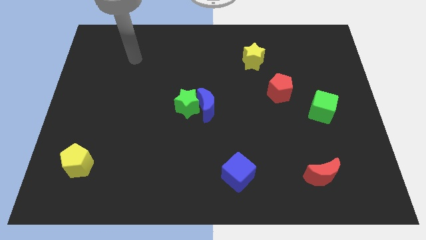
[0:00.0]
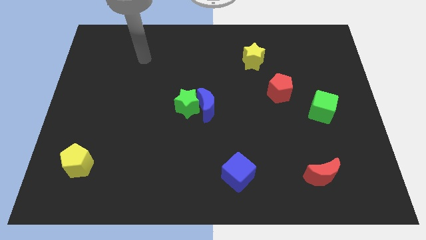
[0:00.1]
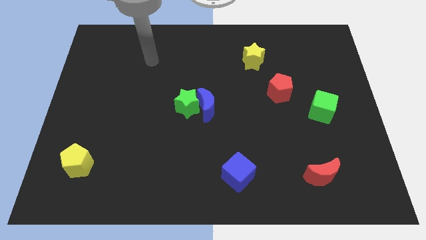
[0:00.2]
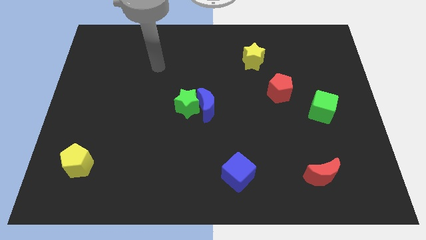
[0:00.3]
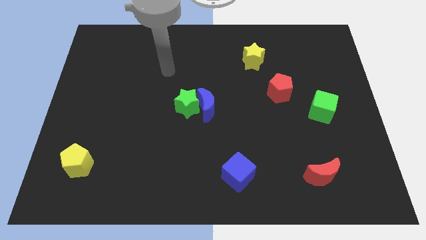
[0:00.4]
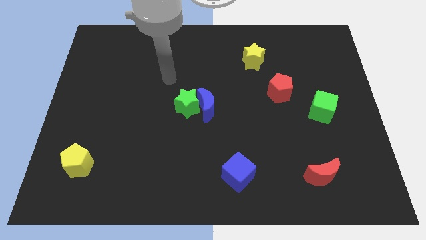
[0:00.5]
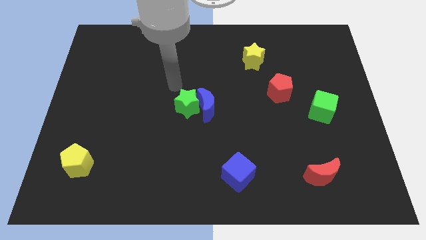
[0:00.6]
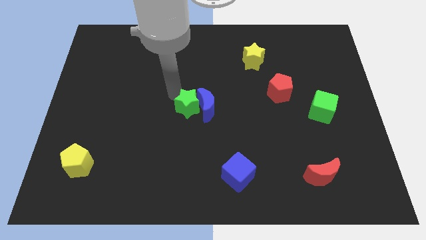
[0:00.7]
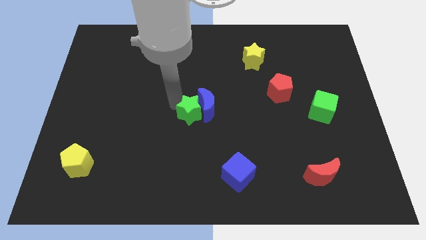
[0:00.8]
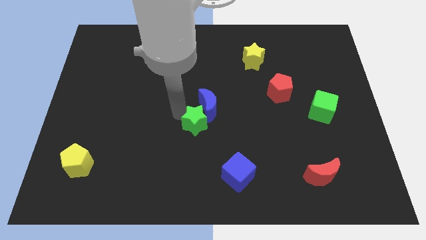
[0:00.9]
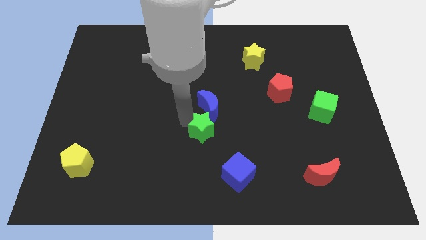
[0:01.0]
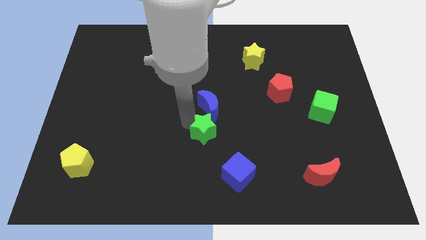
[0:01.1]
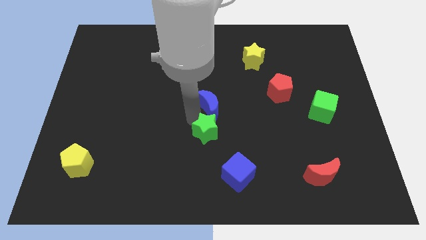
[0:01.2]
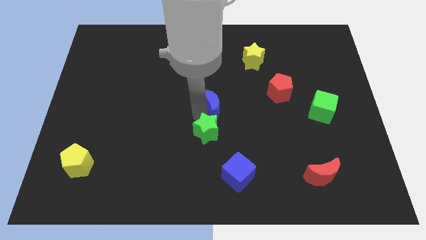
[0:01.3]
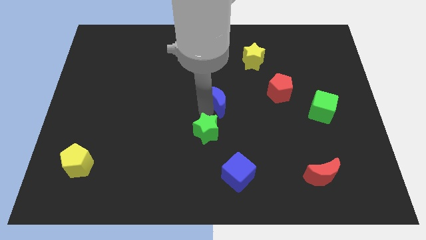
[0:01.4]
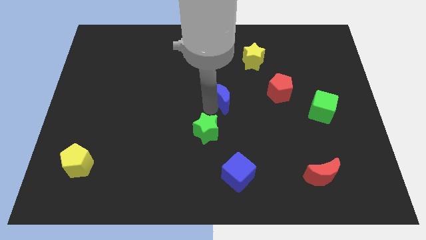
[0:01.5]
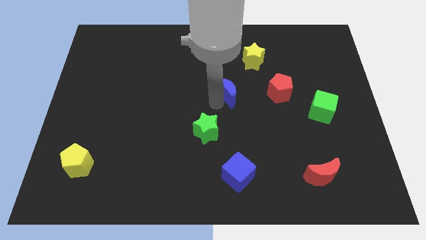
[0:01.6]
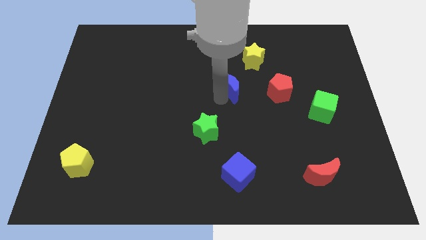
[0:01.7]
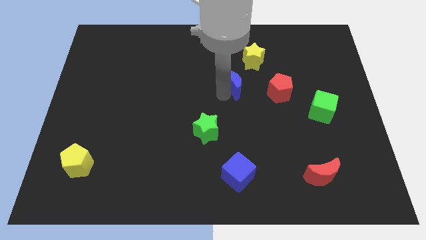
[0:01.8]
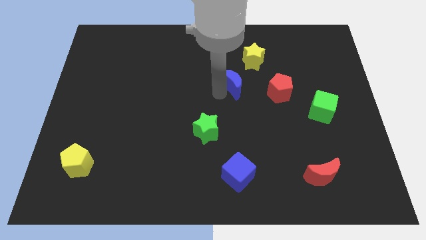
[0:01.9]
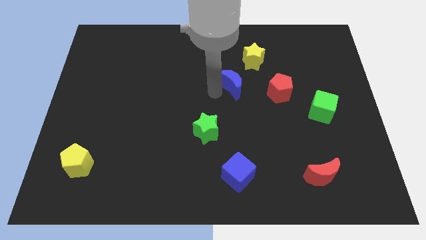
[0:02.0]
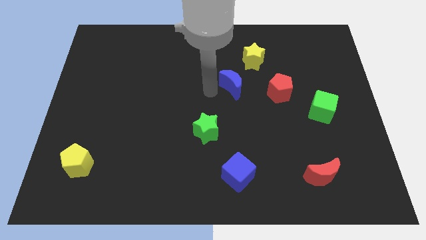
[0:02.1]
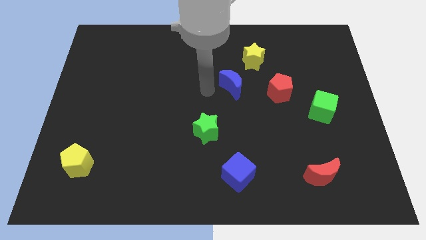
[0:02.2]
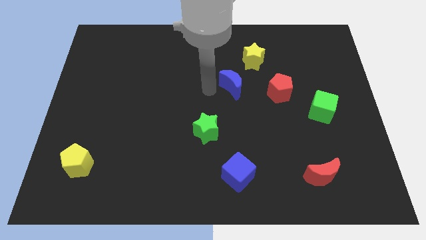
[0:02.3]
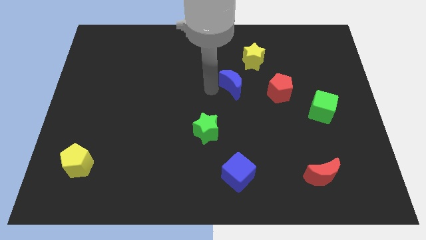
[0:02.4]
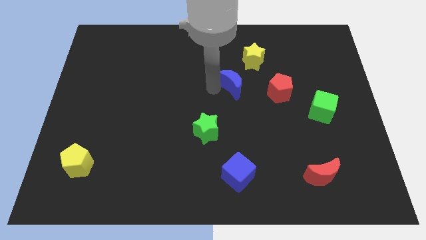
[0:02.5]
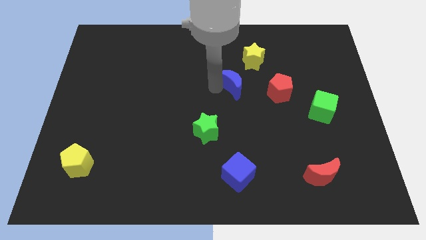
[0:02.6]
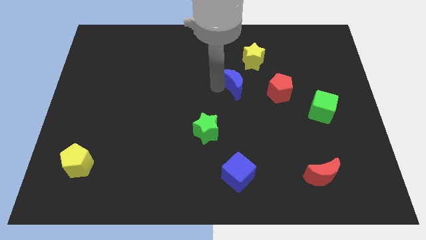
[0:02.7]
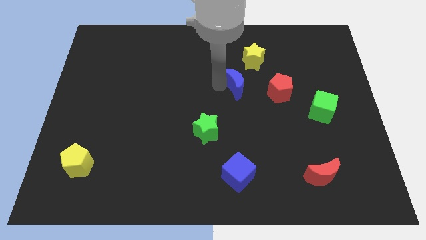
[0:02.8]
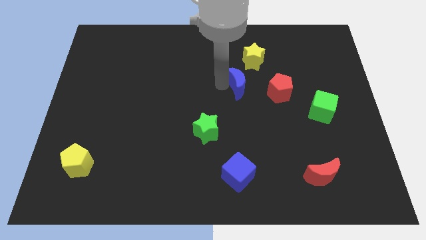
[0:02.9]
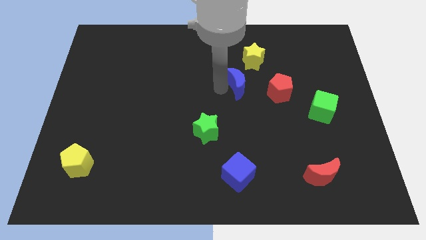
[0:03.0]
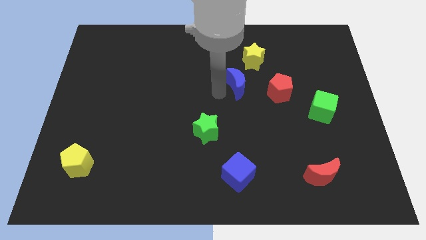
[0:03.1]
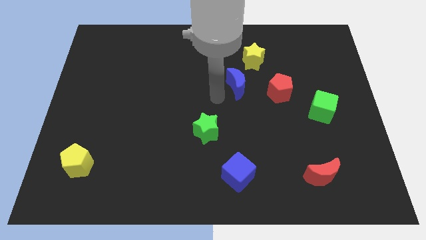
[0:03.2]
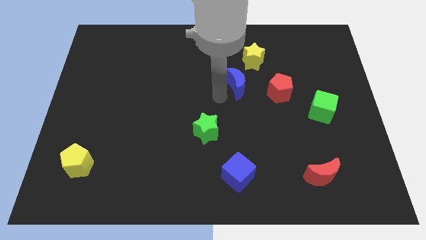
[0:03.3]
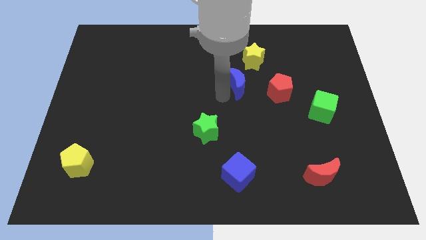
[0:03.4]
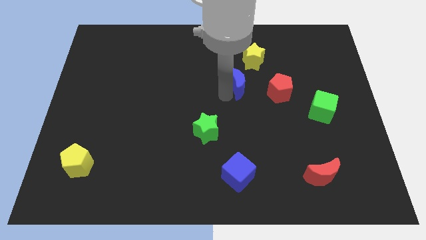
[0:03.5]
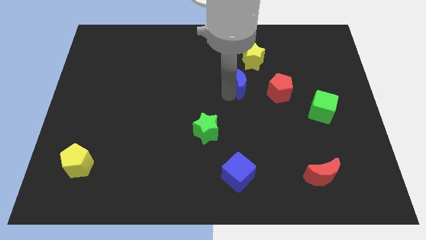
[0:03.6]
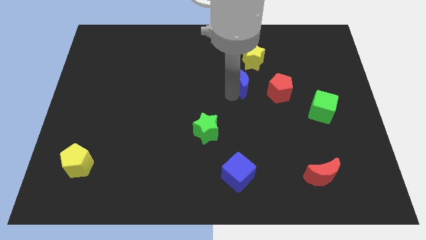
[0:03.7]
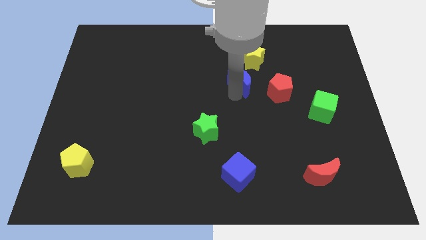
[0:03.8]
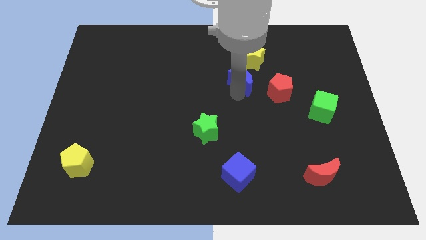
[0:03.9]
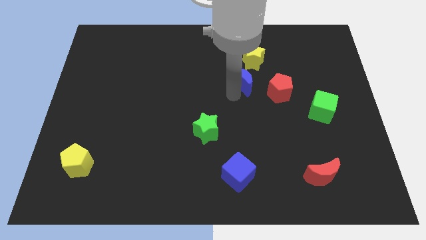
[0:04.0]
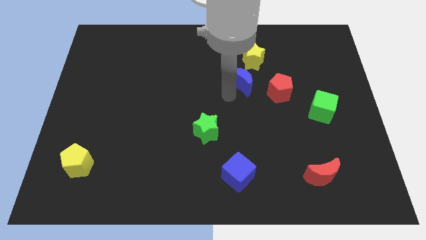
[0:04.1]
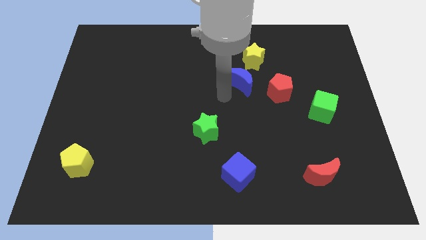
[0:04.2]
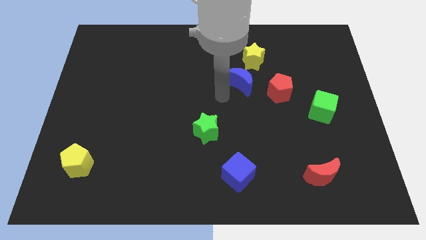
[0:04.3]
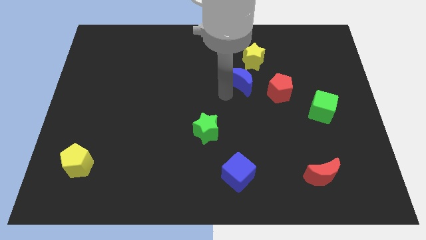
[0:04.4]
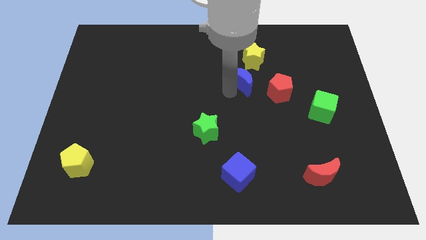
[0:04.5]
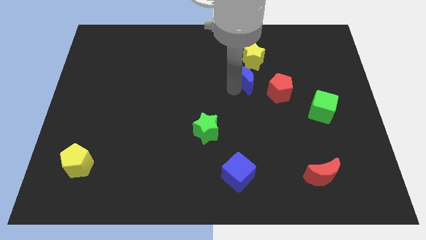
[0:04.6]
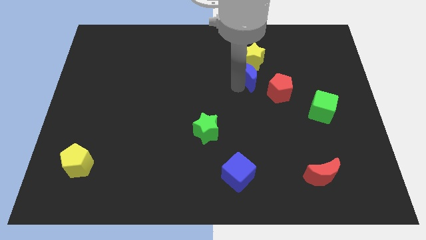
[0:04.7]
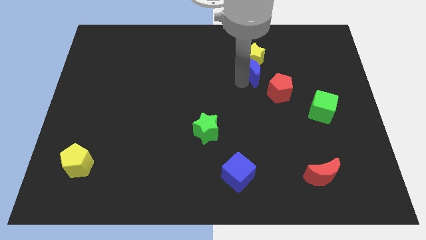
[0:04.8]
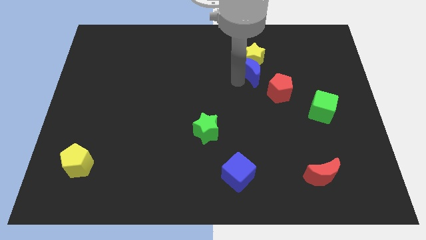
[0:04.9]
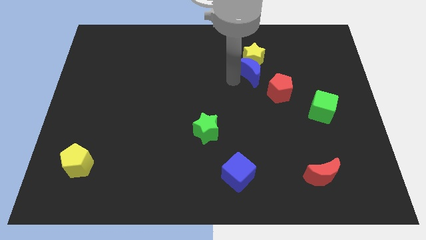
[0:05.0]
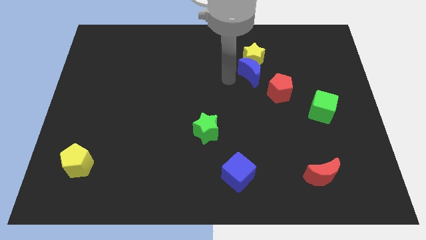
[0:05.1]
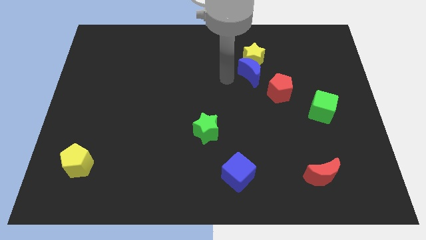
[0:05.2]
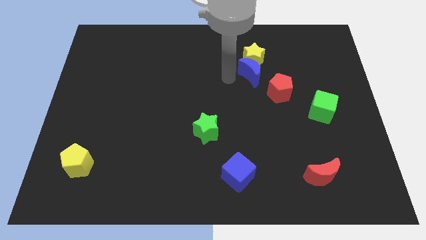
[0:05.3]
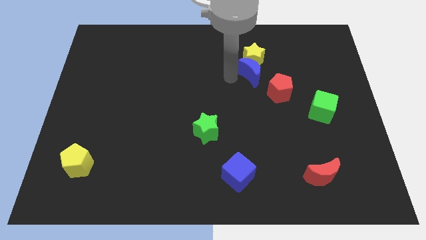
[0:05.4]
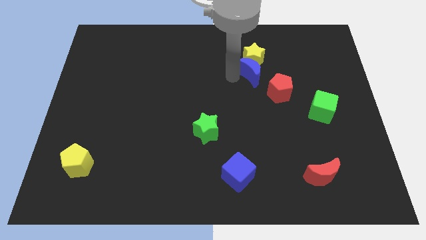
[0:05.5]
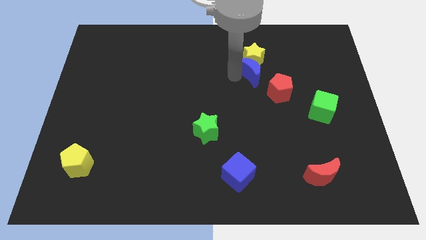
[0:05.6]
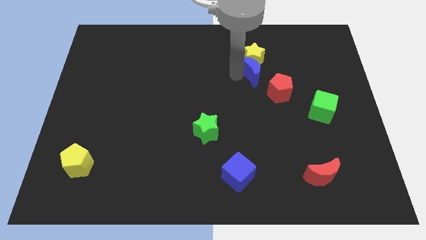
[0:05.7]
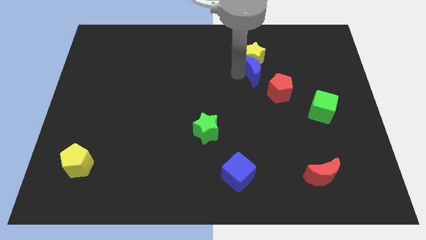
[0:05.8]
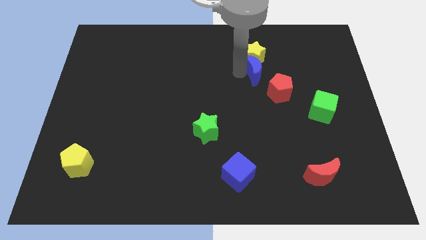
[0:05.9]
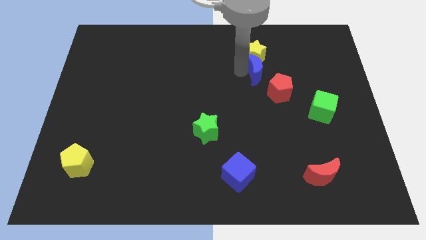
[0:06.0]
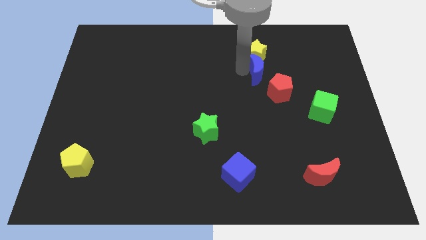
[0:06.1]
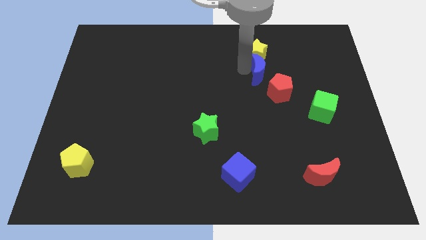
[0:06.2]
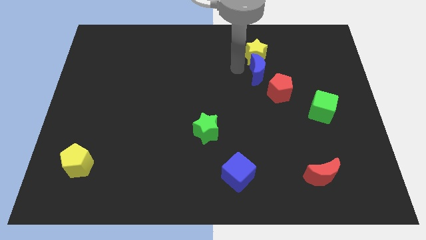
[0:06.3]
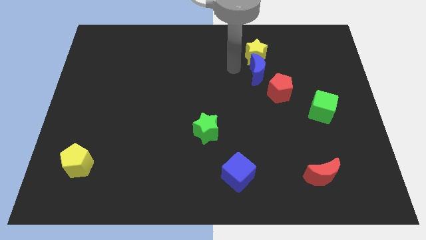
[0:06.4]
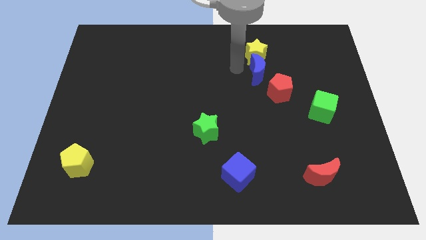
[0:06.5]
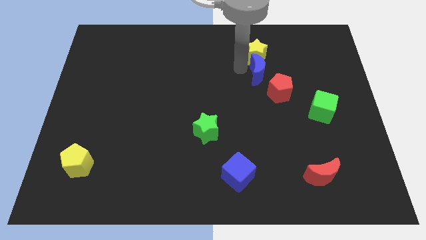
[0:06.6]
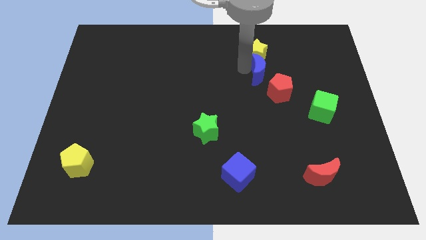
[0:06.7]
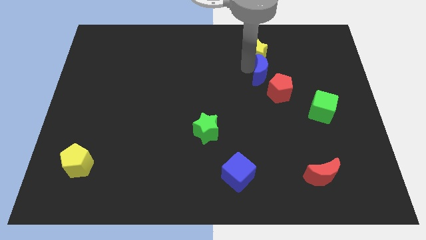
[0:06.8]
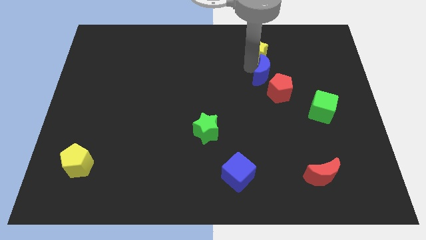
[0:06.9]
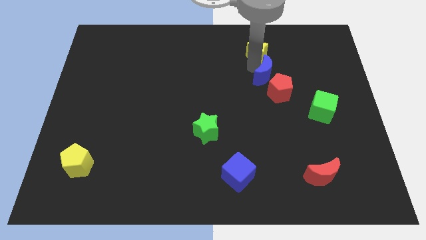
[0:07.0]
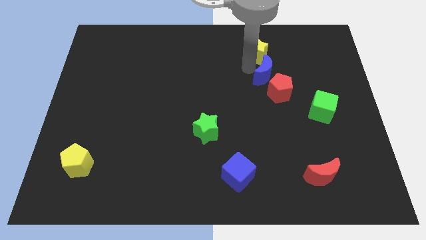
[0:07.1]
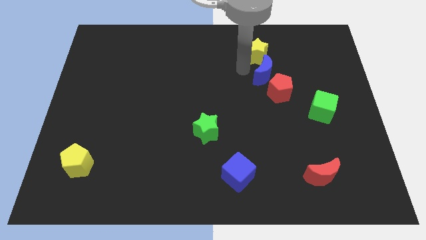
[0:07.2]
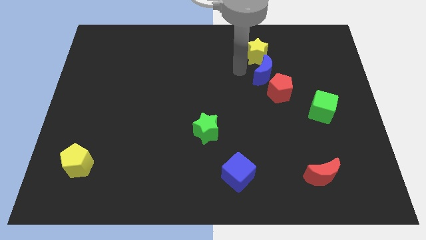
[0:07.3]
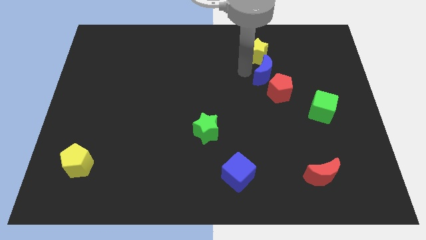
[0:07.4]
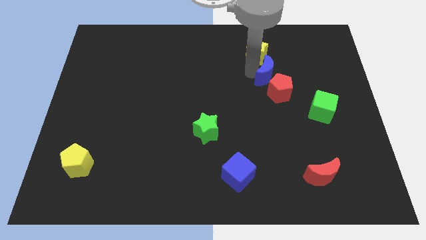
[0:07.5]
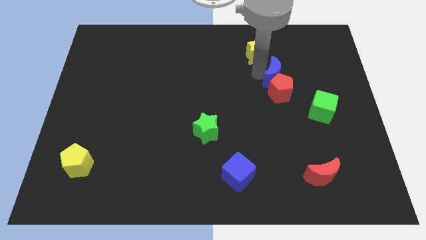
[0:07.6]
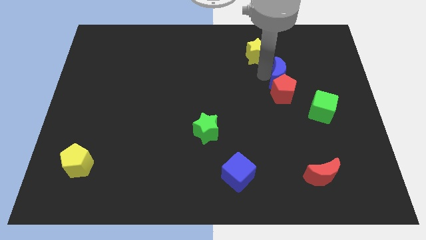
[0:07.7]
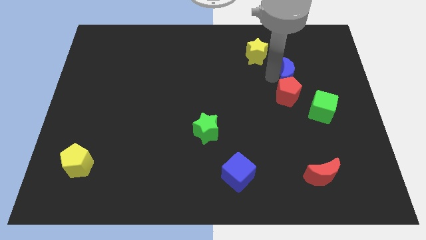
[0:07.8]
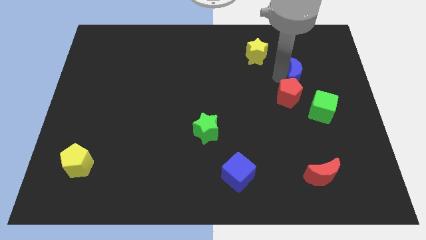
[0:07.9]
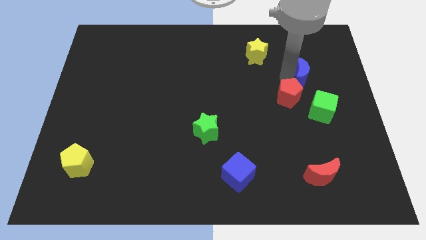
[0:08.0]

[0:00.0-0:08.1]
push the blue moon to the top of the green cube
